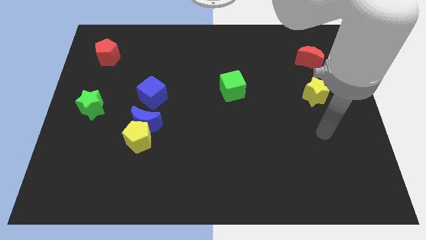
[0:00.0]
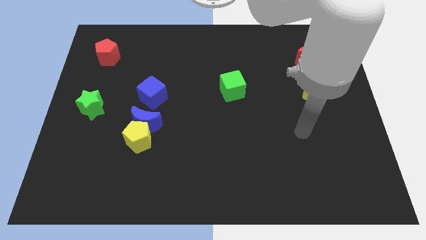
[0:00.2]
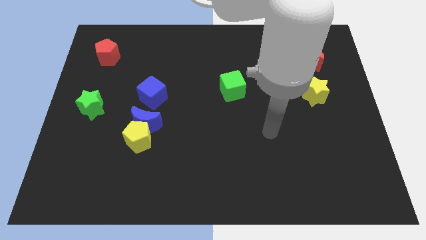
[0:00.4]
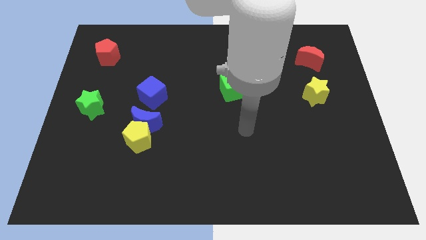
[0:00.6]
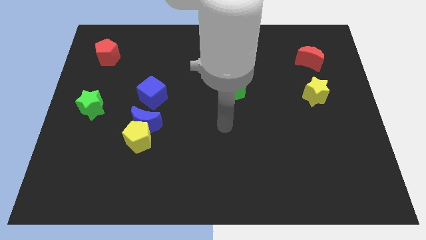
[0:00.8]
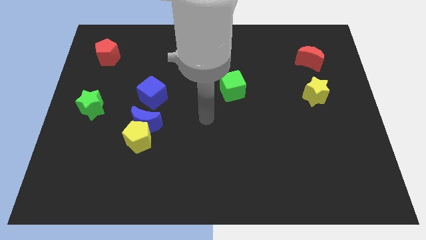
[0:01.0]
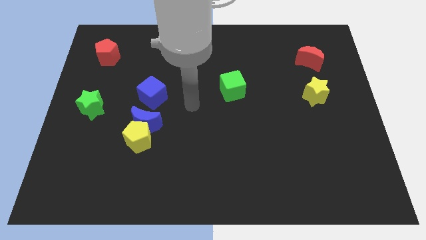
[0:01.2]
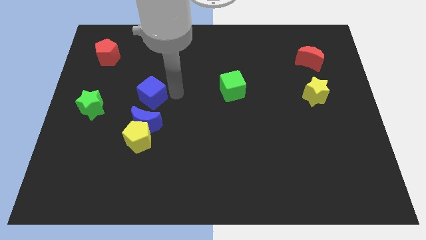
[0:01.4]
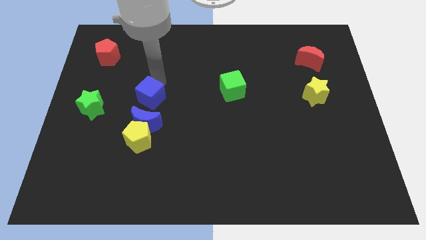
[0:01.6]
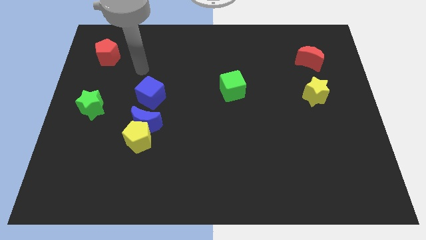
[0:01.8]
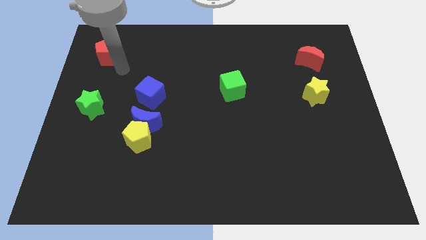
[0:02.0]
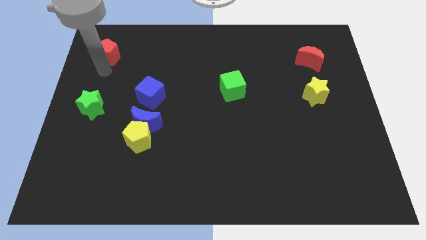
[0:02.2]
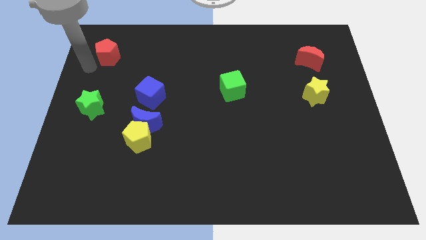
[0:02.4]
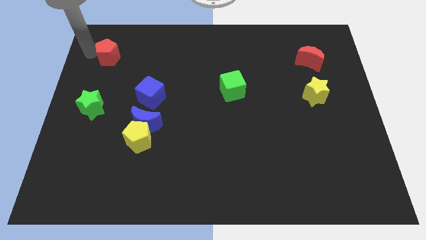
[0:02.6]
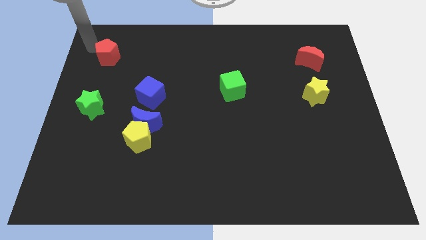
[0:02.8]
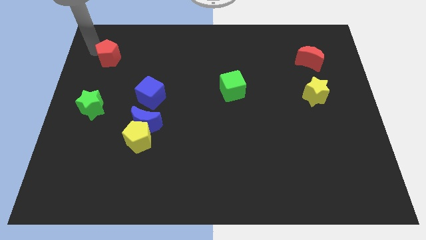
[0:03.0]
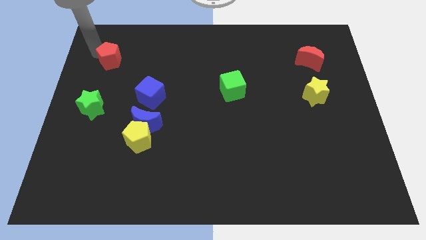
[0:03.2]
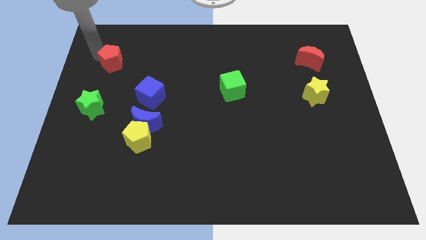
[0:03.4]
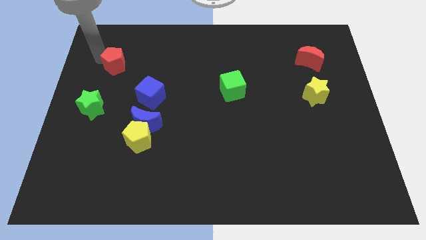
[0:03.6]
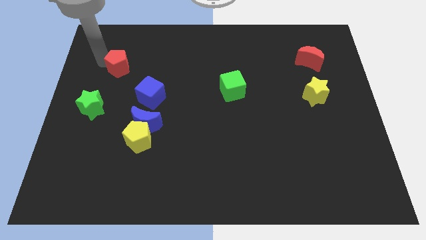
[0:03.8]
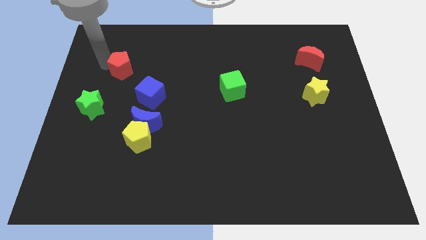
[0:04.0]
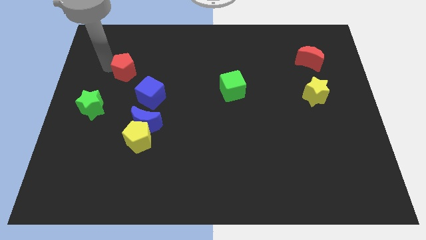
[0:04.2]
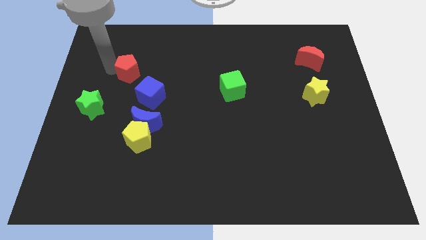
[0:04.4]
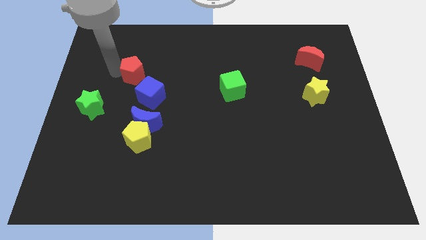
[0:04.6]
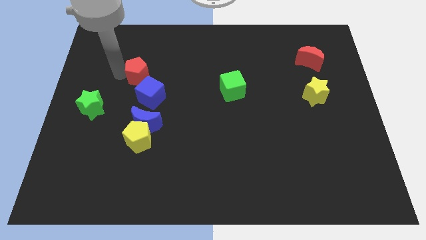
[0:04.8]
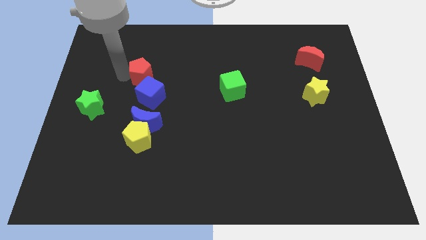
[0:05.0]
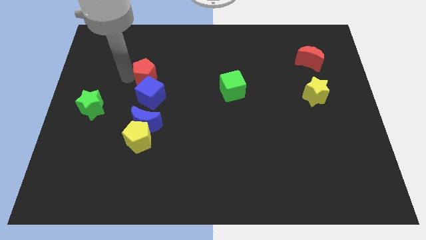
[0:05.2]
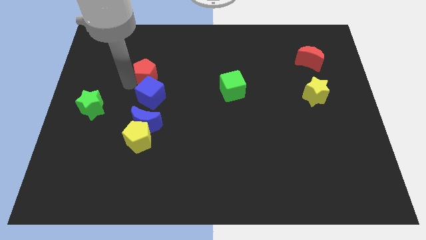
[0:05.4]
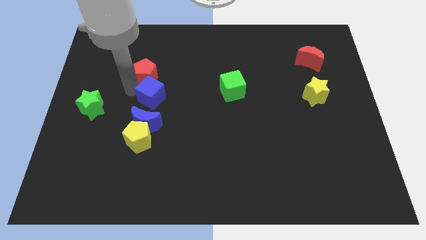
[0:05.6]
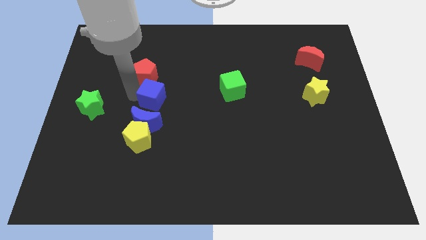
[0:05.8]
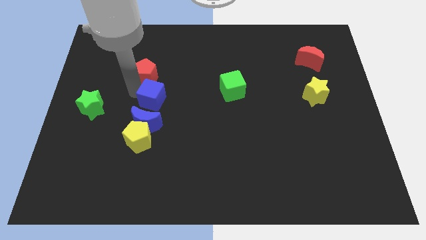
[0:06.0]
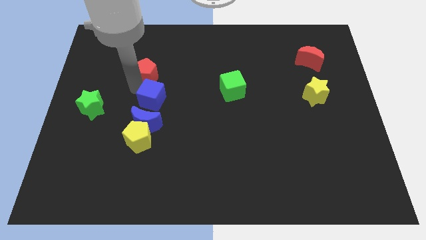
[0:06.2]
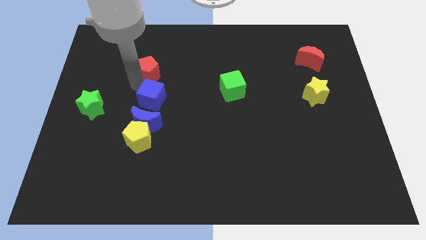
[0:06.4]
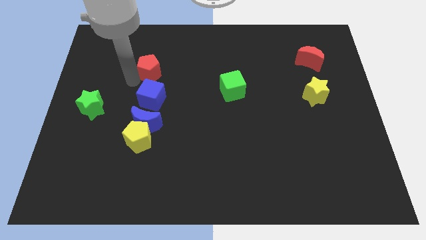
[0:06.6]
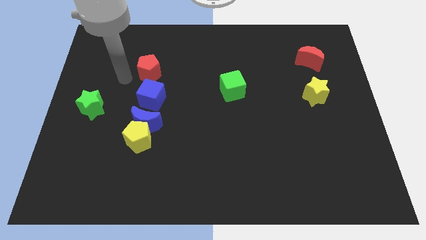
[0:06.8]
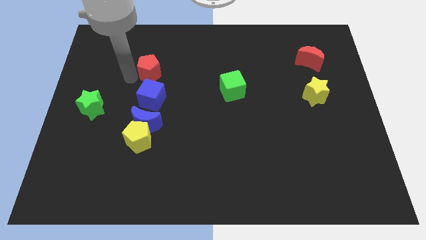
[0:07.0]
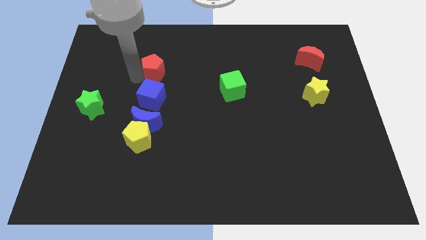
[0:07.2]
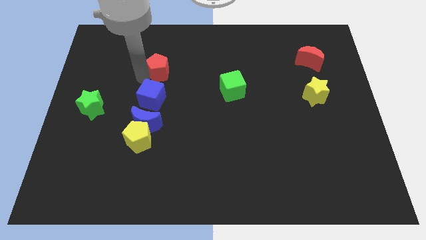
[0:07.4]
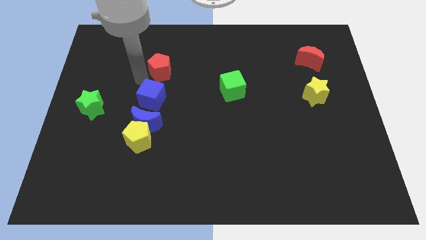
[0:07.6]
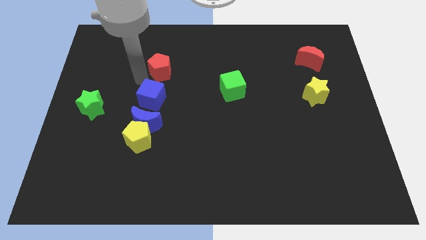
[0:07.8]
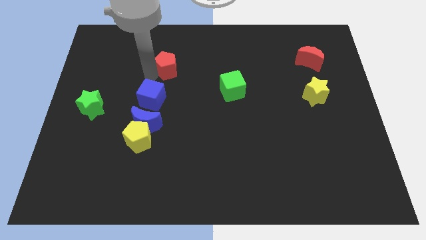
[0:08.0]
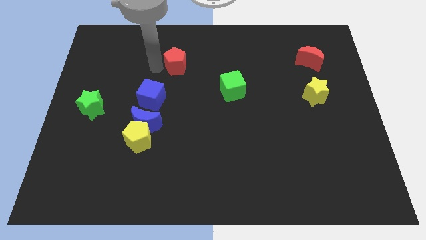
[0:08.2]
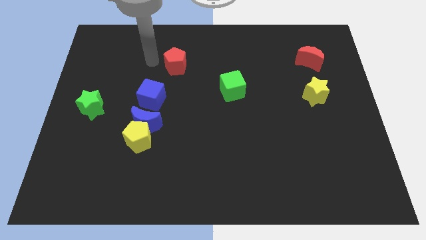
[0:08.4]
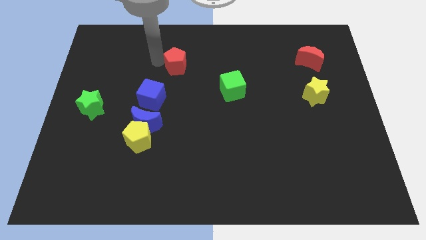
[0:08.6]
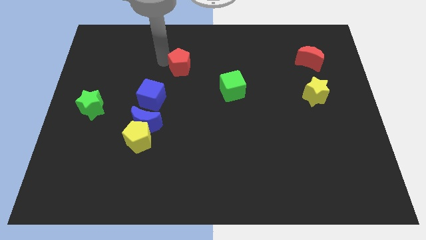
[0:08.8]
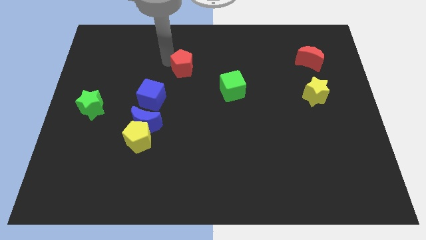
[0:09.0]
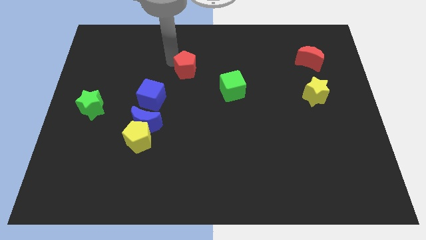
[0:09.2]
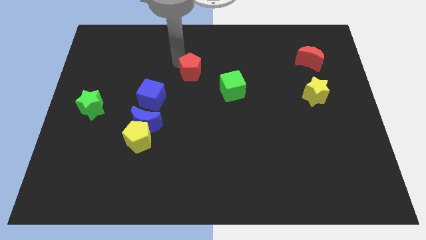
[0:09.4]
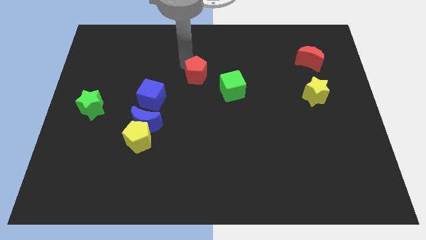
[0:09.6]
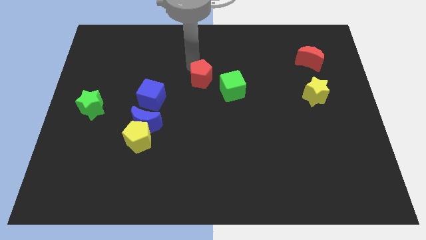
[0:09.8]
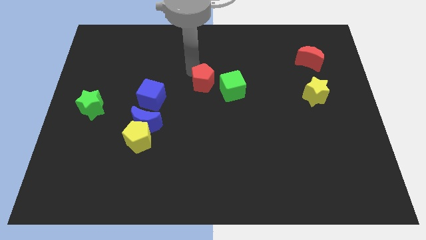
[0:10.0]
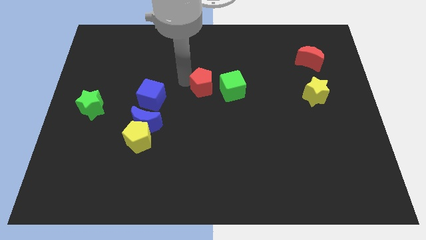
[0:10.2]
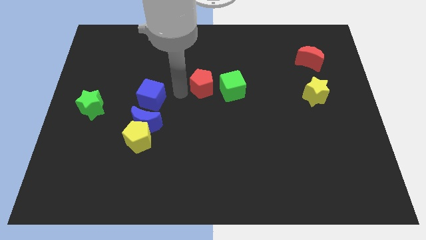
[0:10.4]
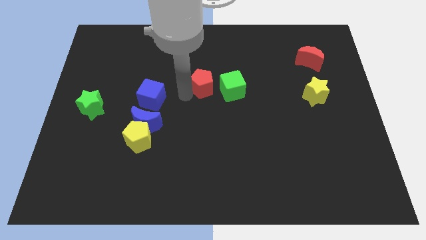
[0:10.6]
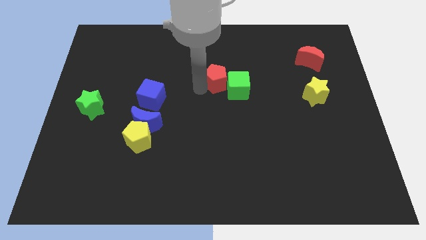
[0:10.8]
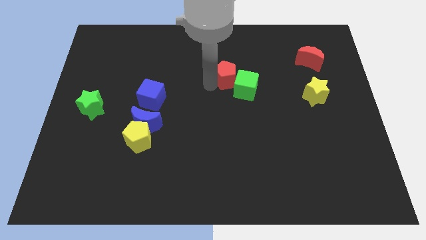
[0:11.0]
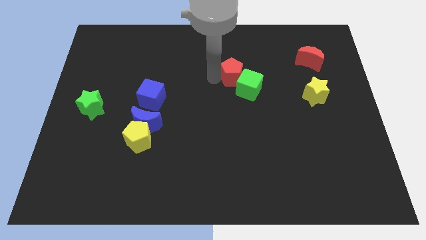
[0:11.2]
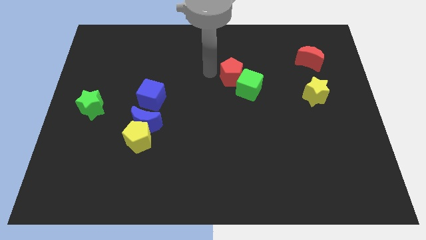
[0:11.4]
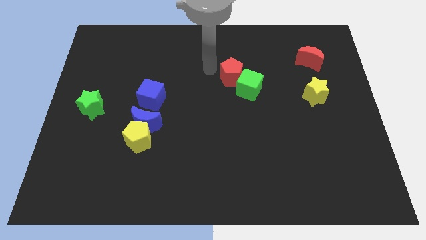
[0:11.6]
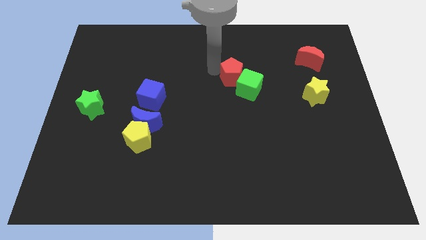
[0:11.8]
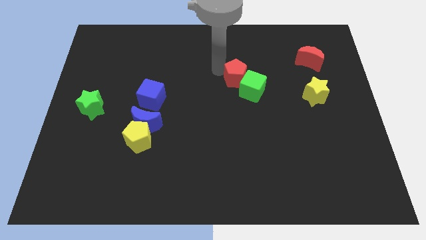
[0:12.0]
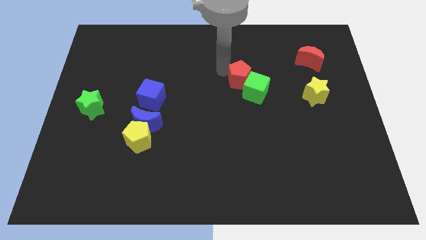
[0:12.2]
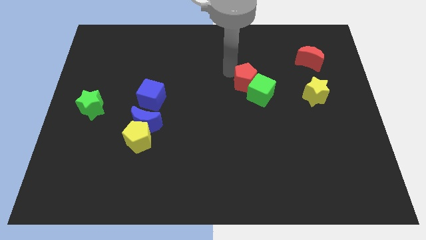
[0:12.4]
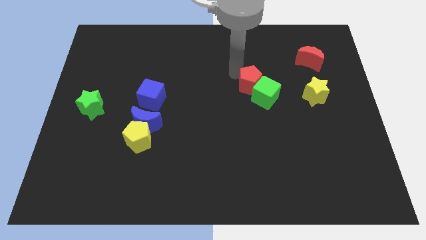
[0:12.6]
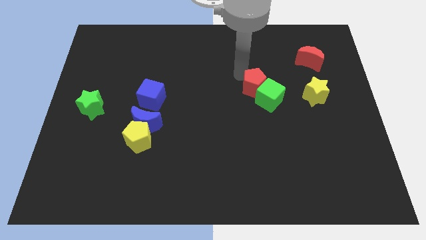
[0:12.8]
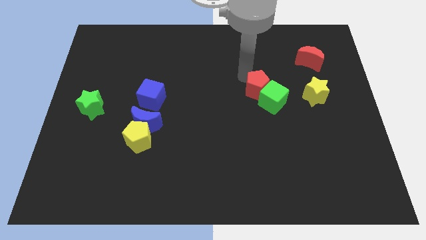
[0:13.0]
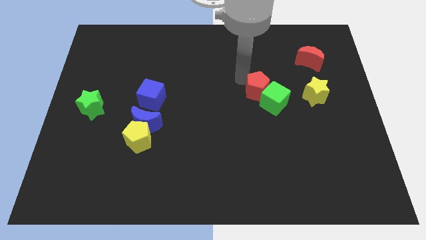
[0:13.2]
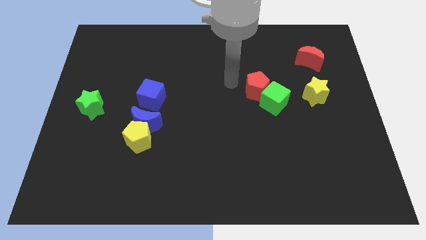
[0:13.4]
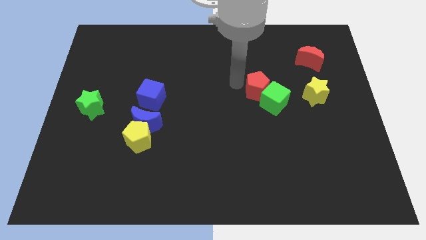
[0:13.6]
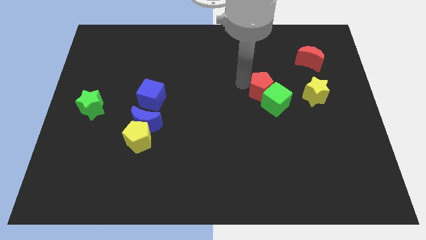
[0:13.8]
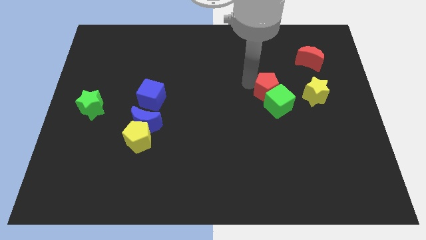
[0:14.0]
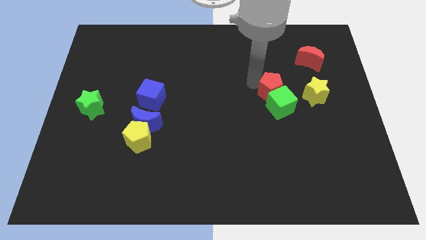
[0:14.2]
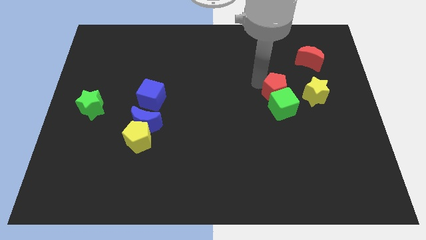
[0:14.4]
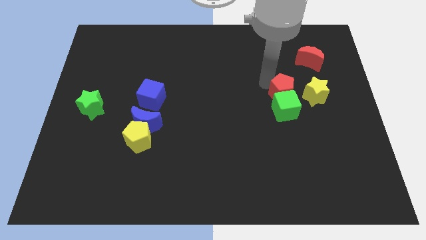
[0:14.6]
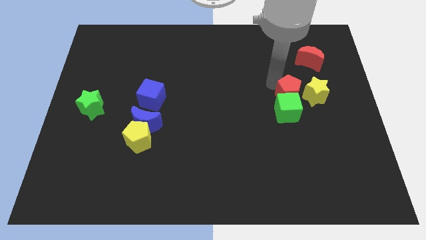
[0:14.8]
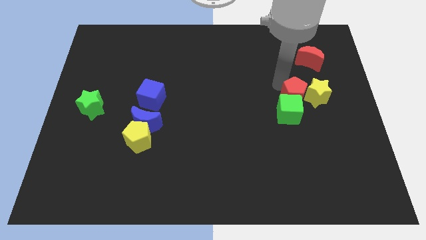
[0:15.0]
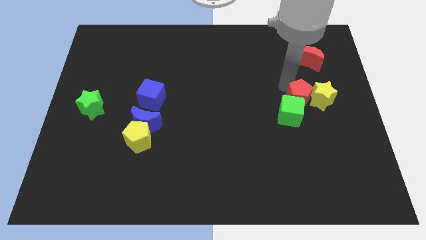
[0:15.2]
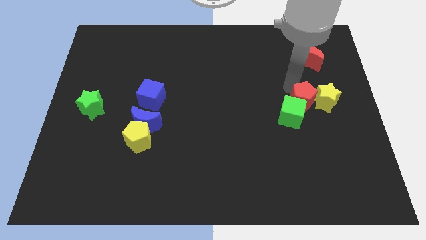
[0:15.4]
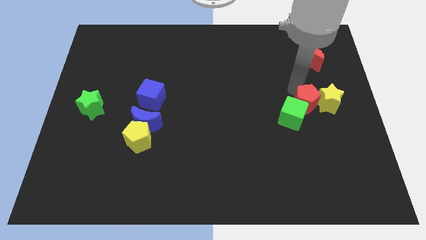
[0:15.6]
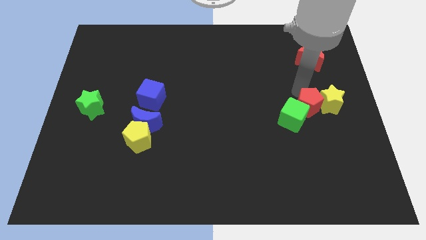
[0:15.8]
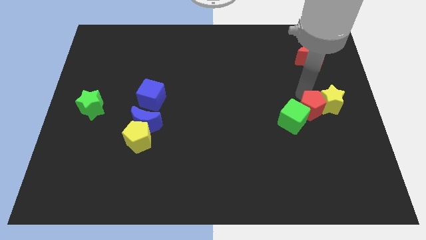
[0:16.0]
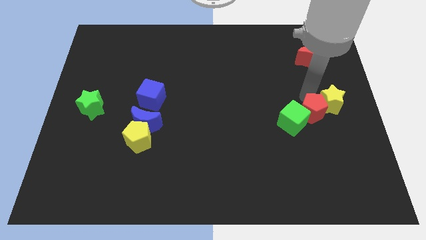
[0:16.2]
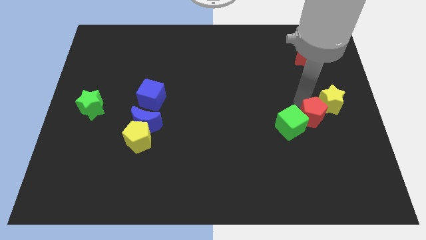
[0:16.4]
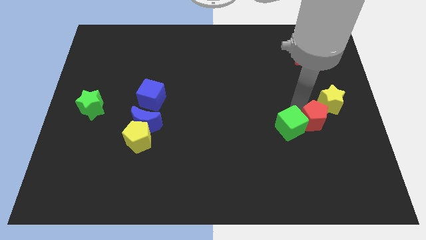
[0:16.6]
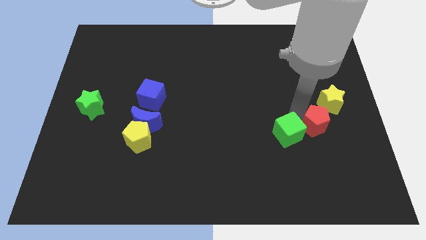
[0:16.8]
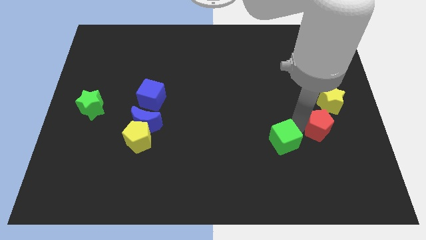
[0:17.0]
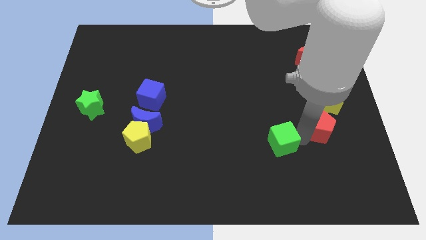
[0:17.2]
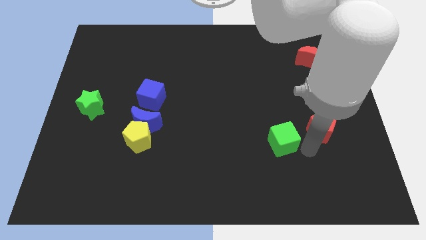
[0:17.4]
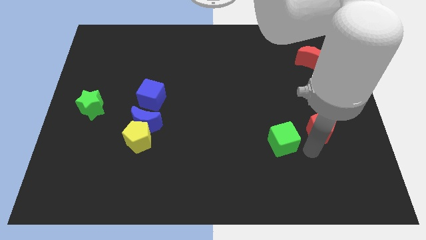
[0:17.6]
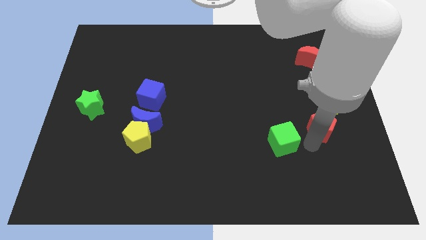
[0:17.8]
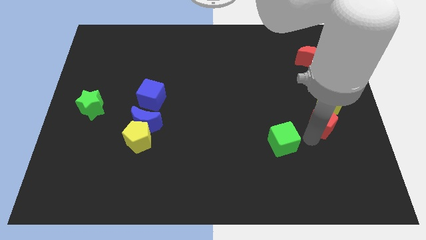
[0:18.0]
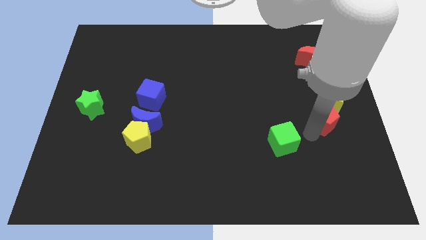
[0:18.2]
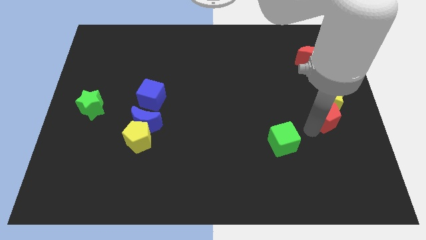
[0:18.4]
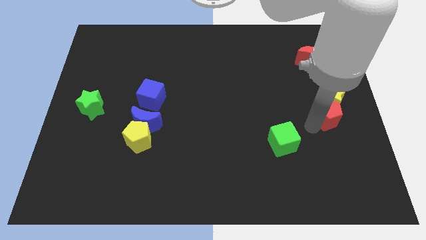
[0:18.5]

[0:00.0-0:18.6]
put the red pentagon to the center right
